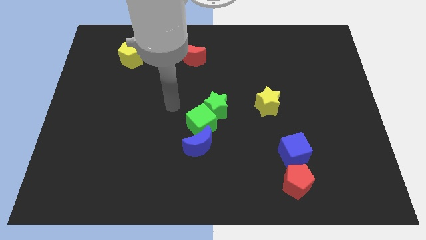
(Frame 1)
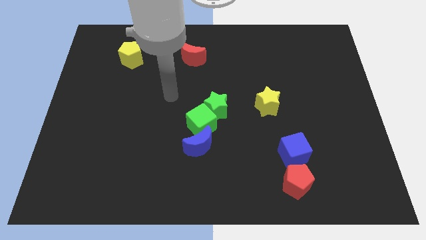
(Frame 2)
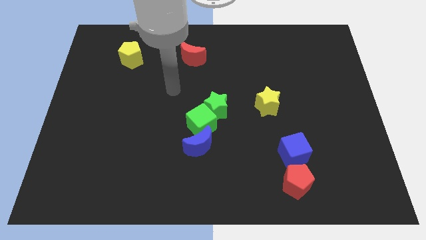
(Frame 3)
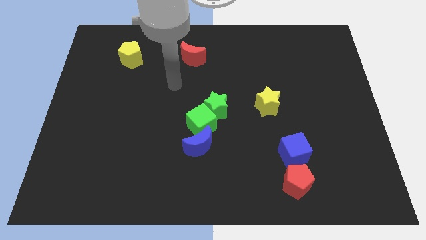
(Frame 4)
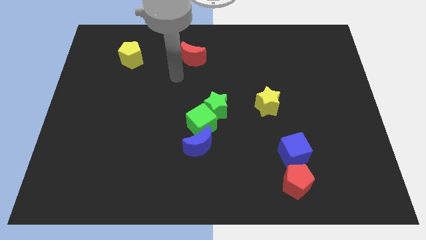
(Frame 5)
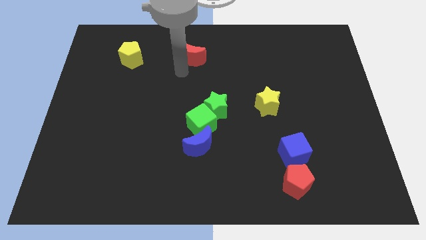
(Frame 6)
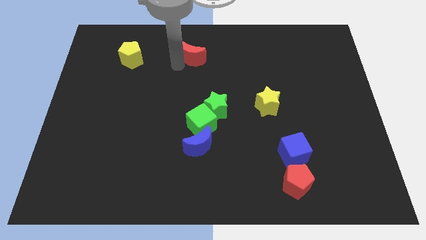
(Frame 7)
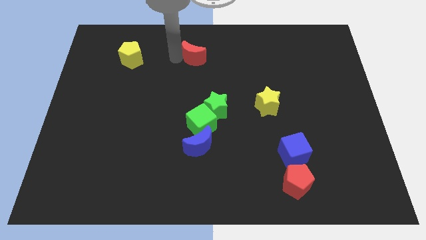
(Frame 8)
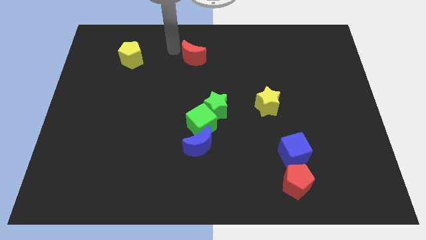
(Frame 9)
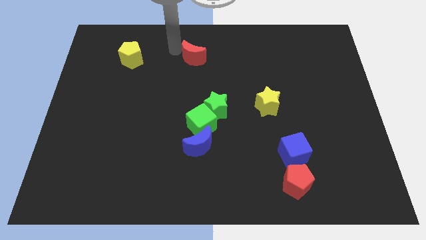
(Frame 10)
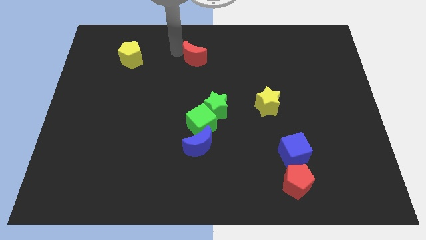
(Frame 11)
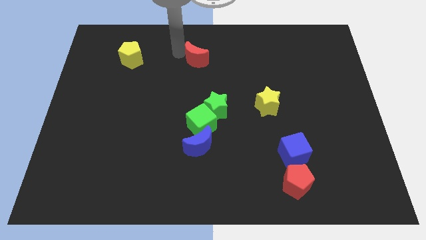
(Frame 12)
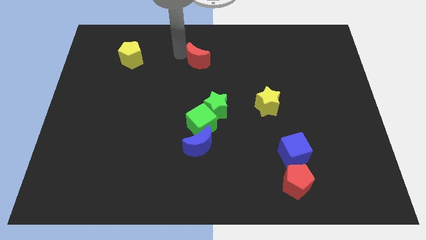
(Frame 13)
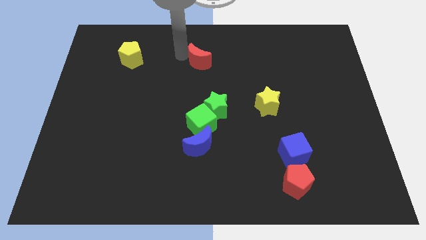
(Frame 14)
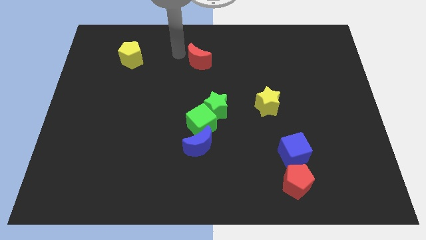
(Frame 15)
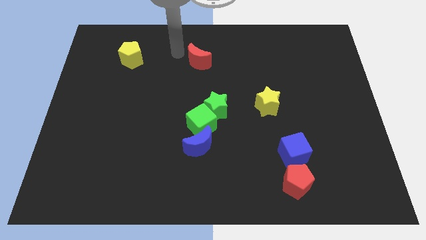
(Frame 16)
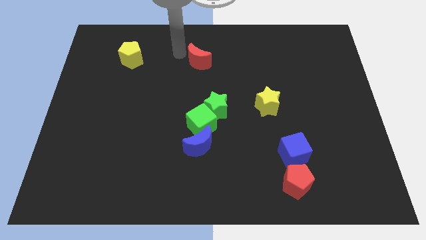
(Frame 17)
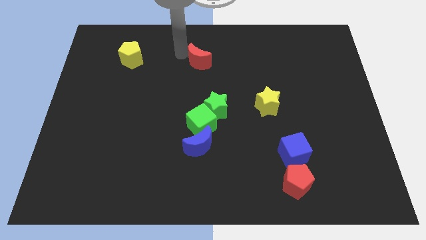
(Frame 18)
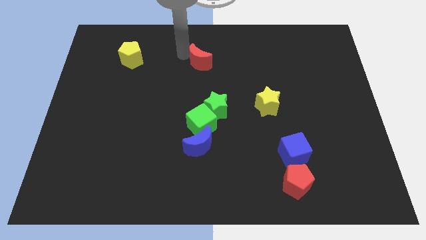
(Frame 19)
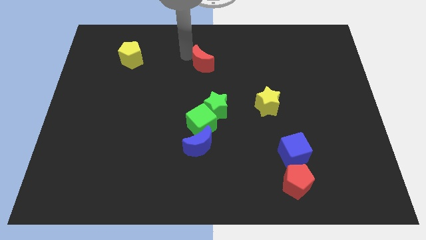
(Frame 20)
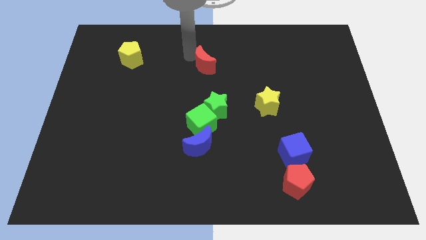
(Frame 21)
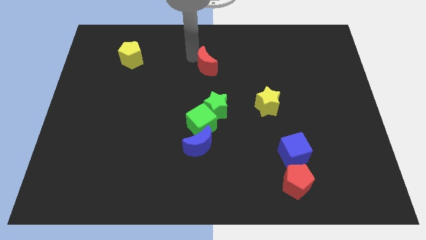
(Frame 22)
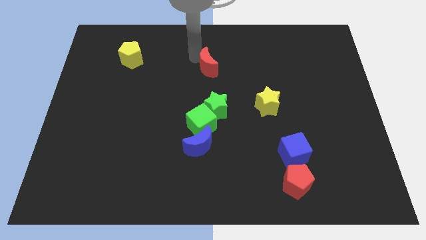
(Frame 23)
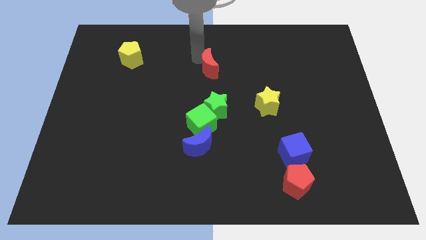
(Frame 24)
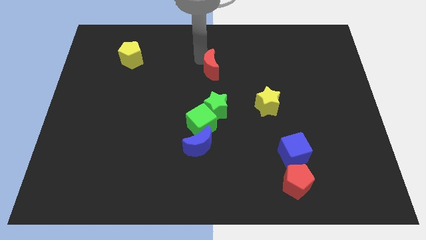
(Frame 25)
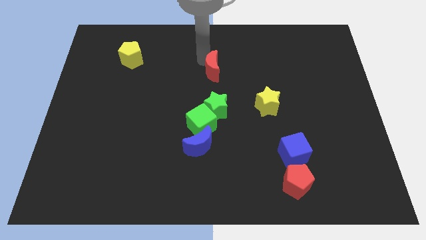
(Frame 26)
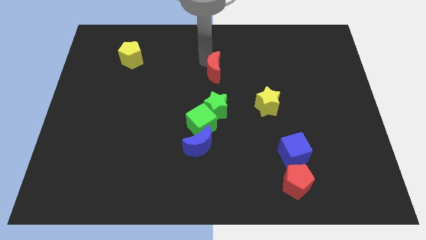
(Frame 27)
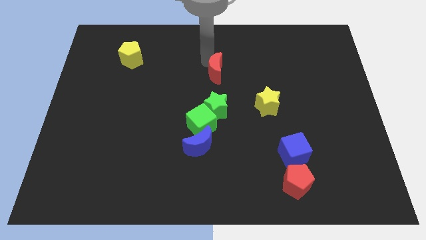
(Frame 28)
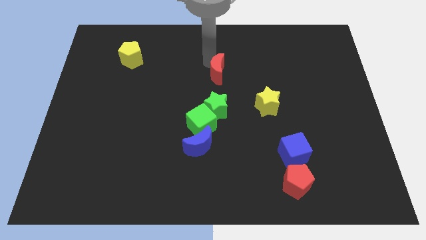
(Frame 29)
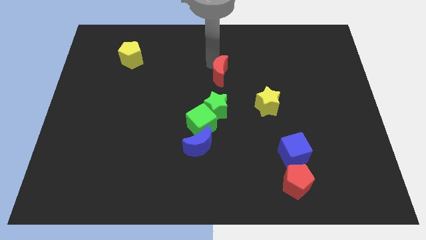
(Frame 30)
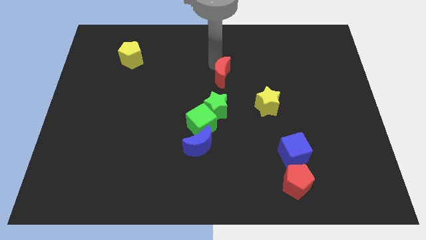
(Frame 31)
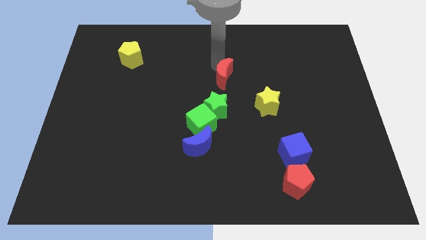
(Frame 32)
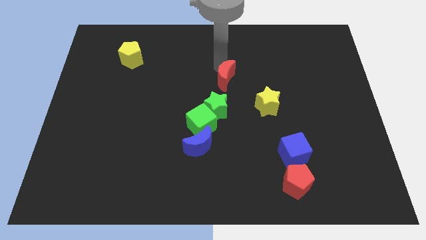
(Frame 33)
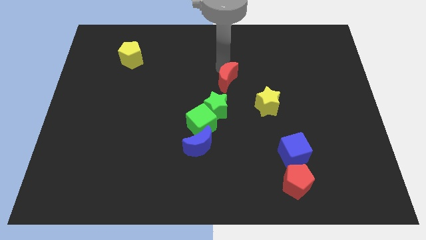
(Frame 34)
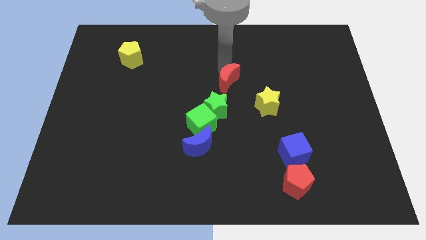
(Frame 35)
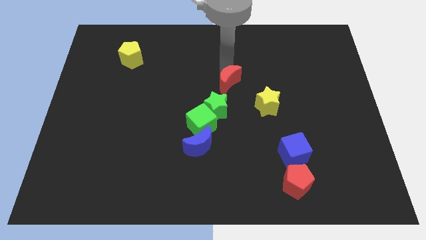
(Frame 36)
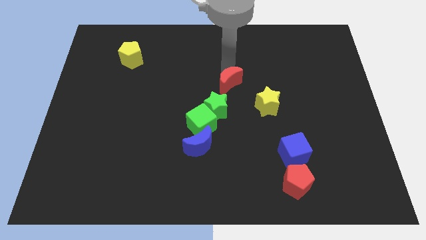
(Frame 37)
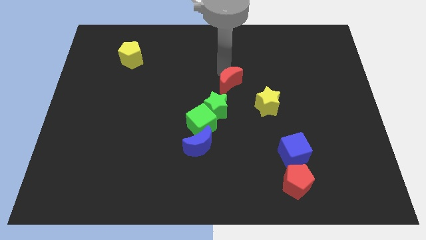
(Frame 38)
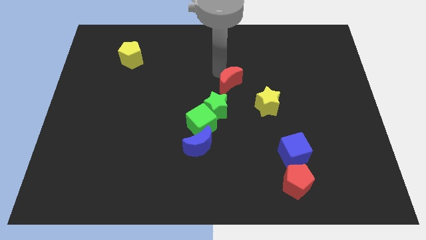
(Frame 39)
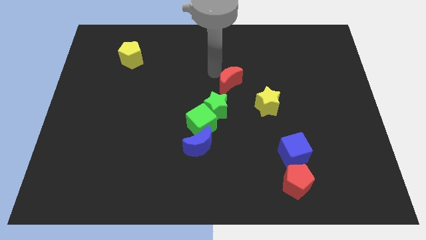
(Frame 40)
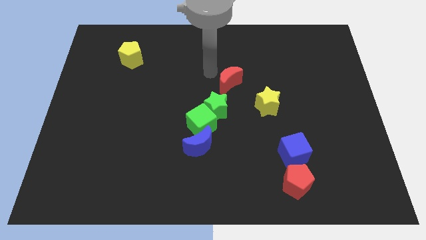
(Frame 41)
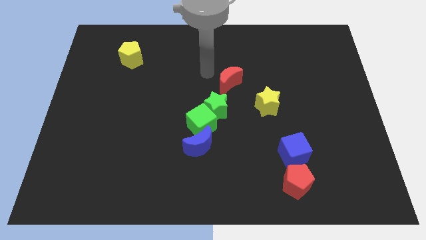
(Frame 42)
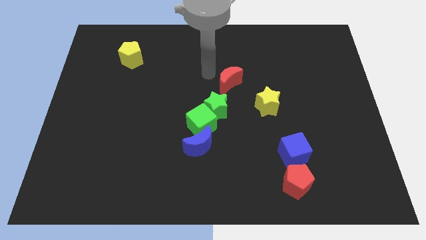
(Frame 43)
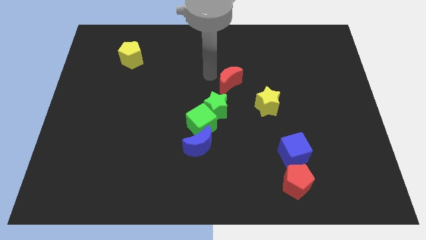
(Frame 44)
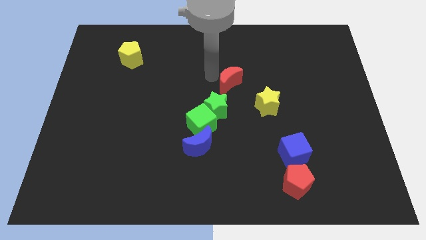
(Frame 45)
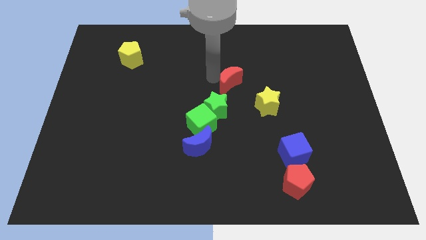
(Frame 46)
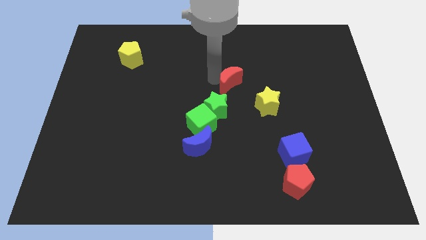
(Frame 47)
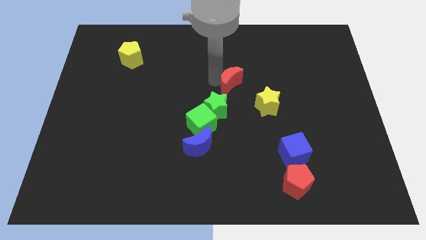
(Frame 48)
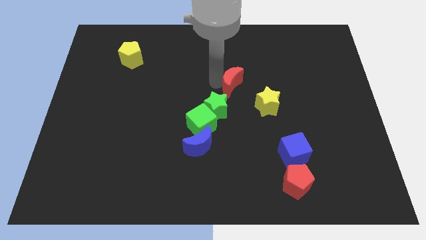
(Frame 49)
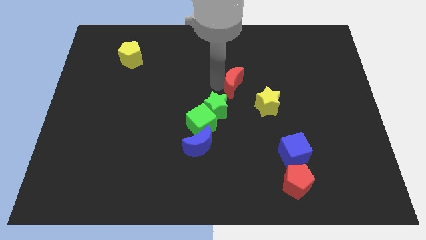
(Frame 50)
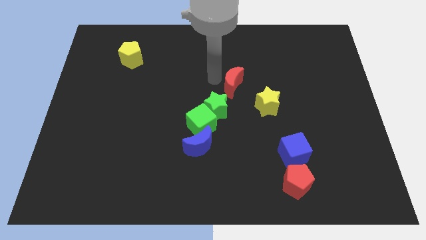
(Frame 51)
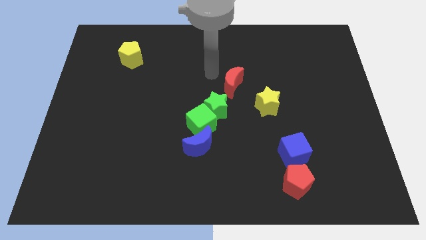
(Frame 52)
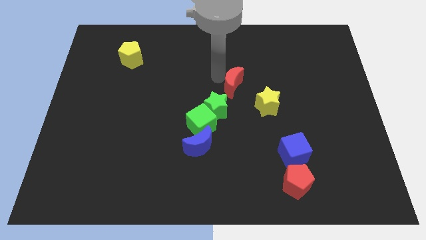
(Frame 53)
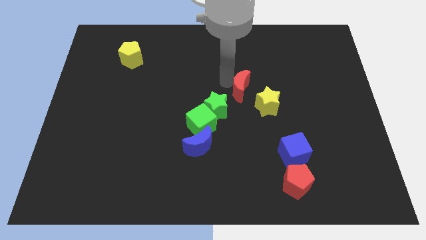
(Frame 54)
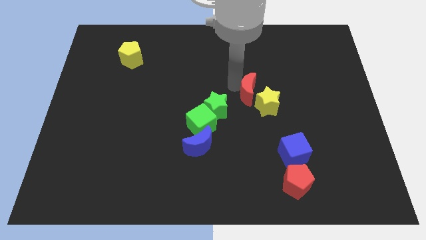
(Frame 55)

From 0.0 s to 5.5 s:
push the red moon to the yellow star

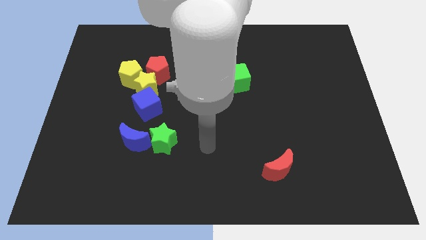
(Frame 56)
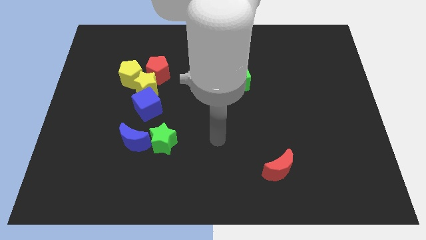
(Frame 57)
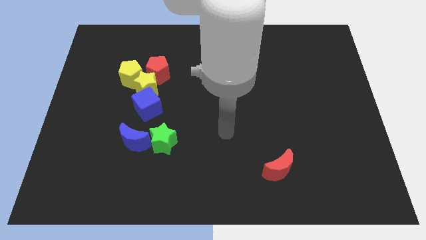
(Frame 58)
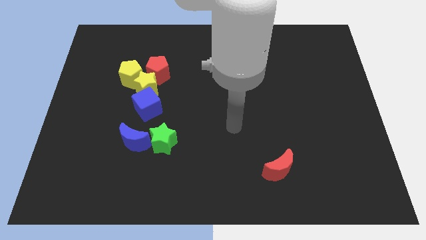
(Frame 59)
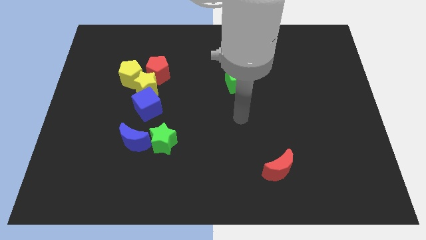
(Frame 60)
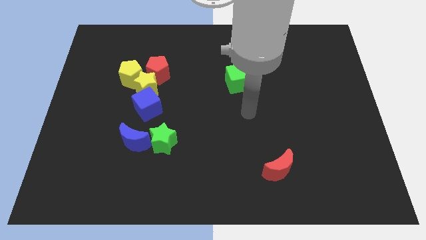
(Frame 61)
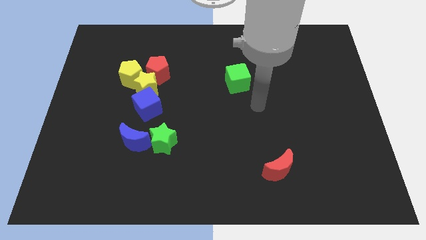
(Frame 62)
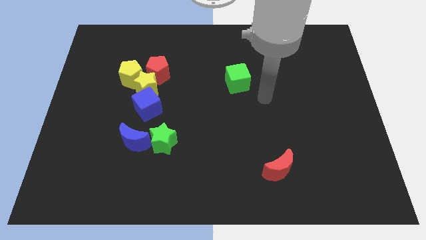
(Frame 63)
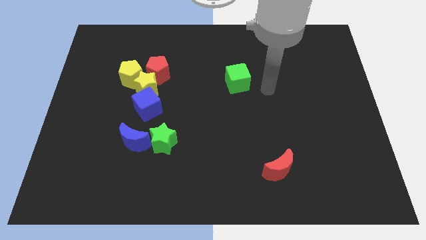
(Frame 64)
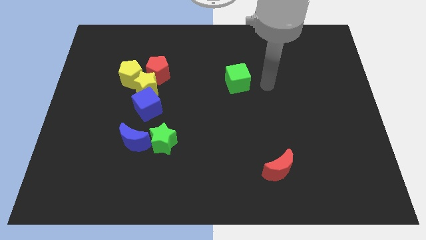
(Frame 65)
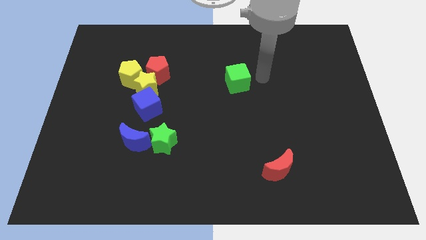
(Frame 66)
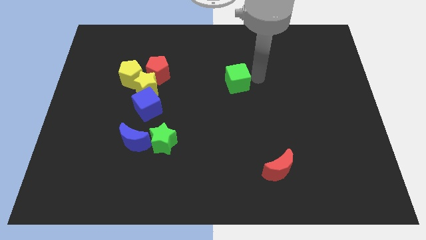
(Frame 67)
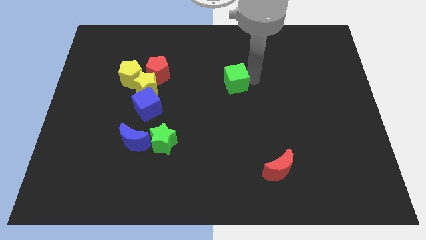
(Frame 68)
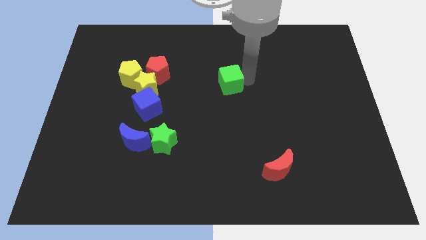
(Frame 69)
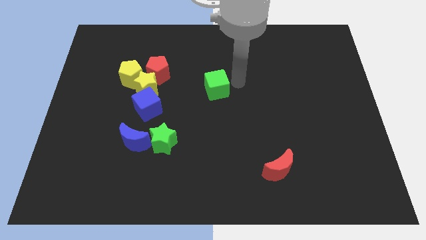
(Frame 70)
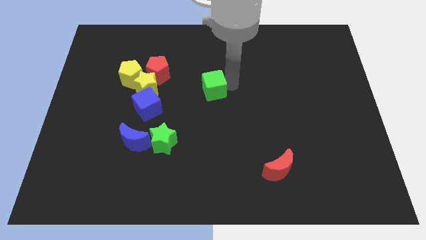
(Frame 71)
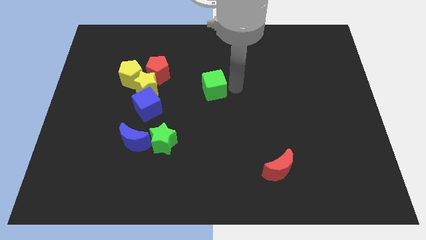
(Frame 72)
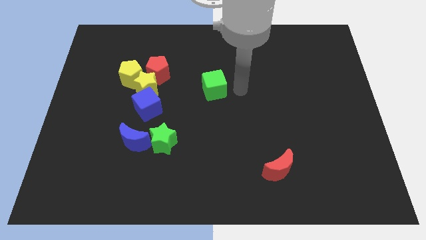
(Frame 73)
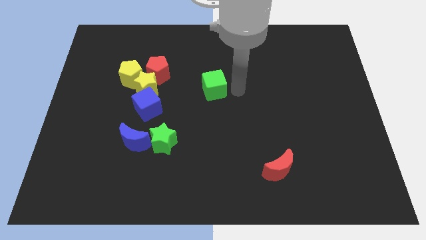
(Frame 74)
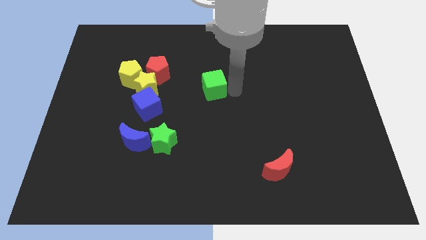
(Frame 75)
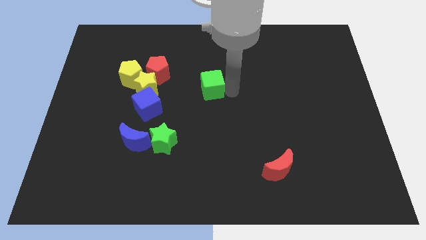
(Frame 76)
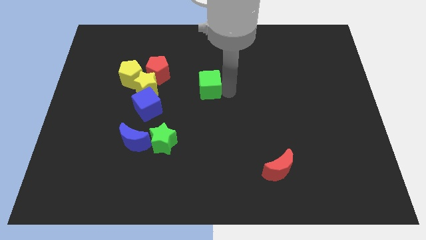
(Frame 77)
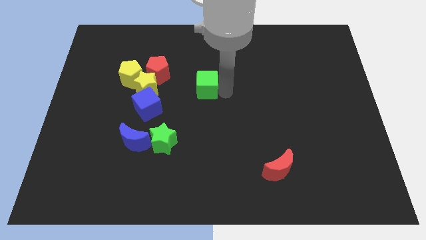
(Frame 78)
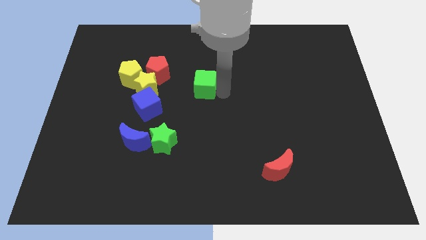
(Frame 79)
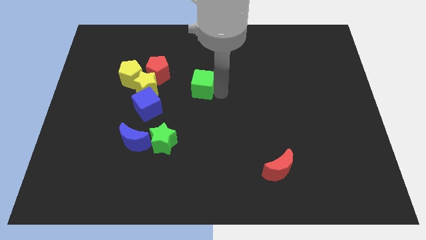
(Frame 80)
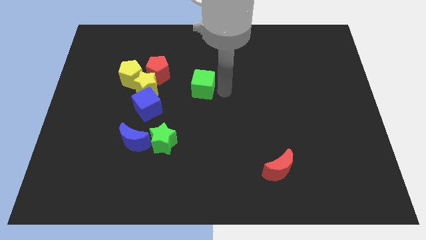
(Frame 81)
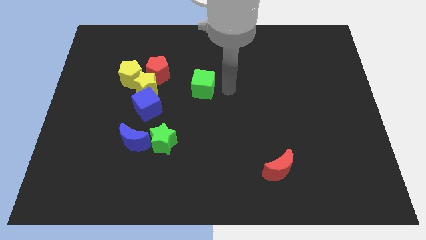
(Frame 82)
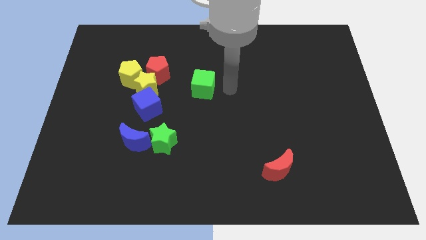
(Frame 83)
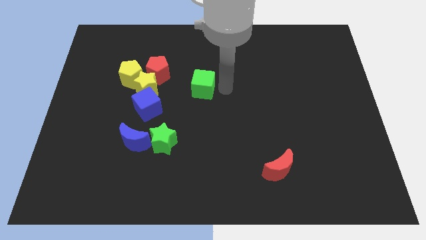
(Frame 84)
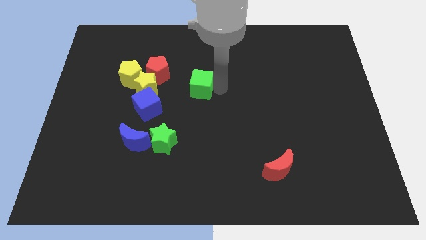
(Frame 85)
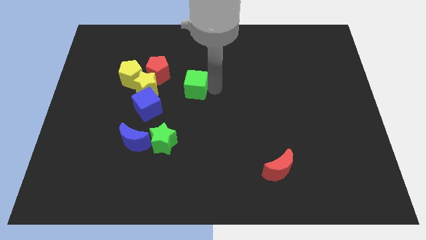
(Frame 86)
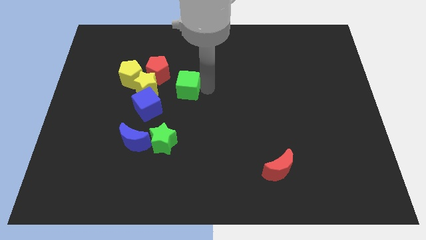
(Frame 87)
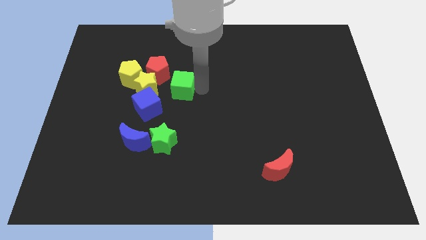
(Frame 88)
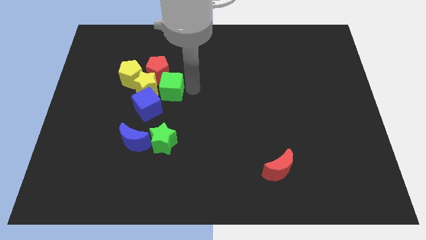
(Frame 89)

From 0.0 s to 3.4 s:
move the green cube close to the yellow star
